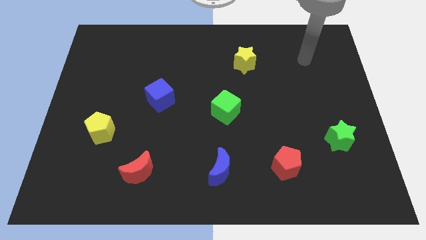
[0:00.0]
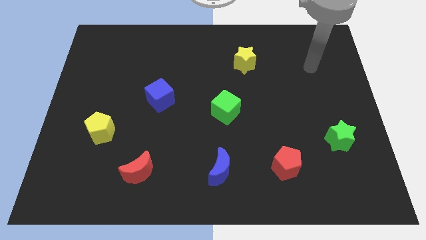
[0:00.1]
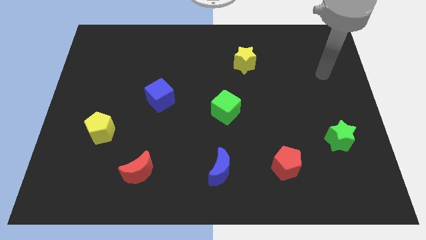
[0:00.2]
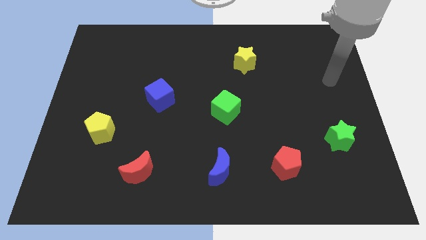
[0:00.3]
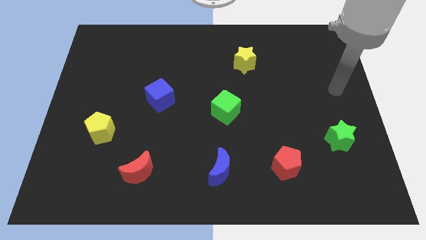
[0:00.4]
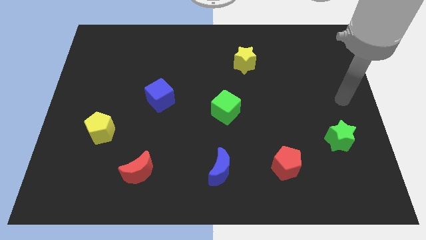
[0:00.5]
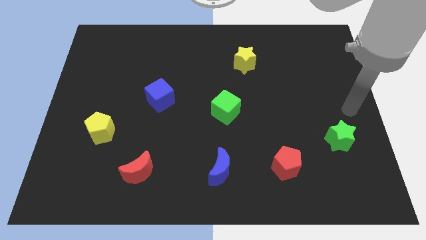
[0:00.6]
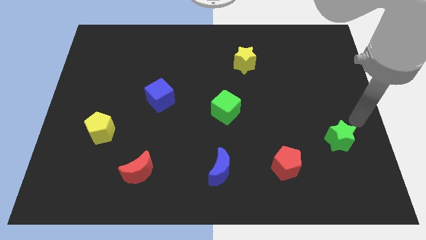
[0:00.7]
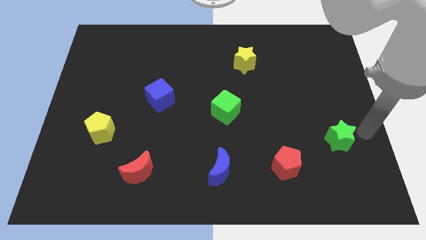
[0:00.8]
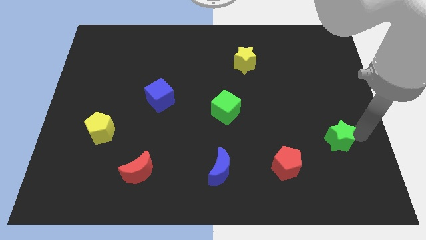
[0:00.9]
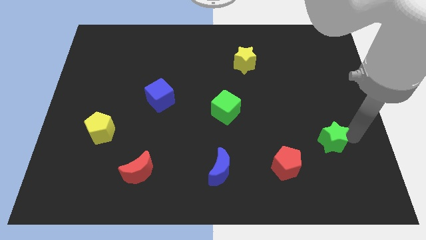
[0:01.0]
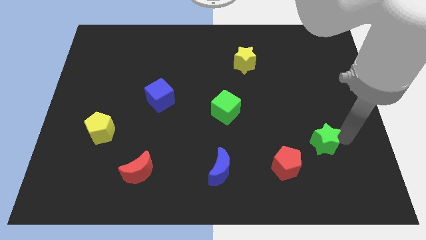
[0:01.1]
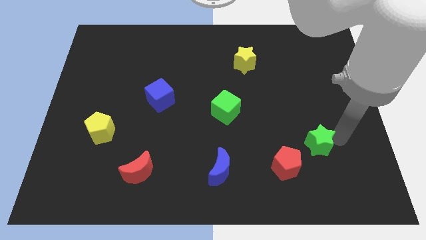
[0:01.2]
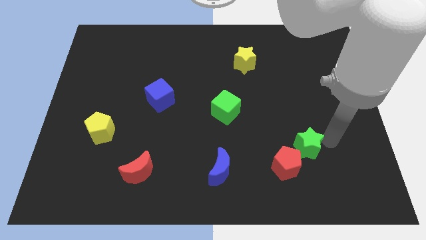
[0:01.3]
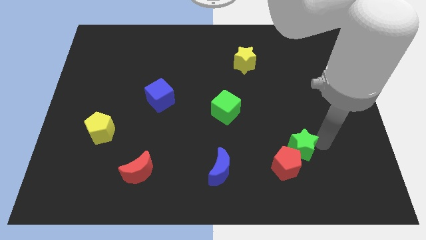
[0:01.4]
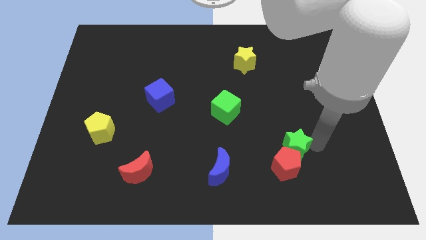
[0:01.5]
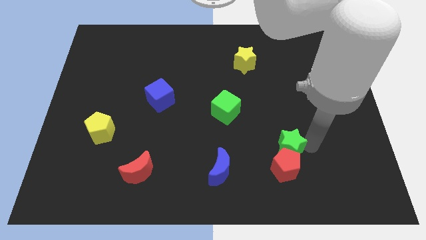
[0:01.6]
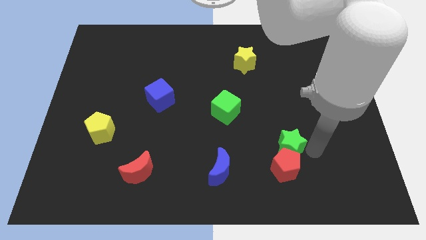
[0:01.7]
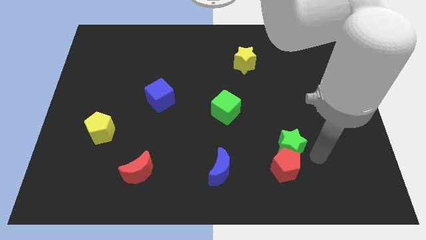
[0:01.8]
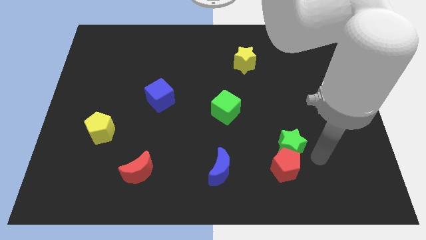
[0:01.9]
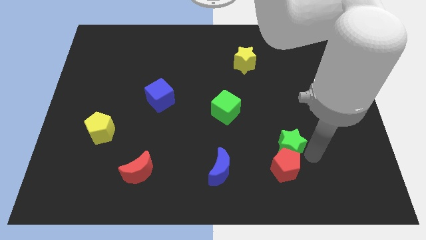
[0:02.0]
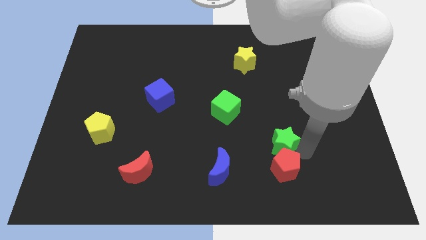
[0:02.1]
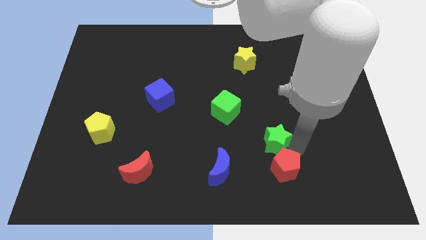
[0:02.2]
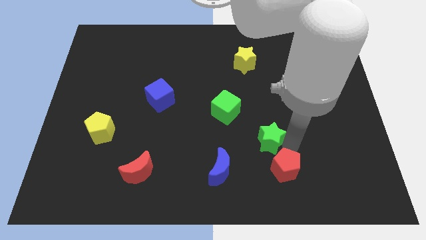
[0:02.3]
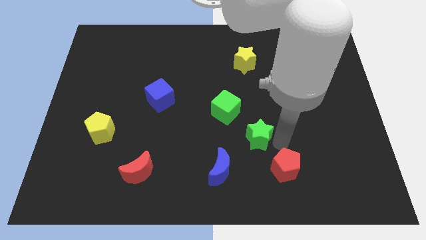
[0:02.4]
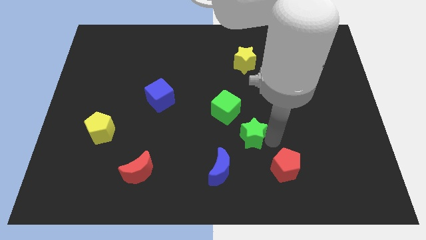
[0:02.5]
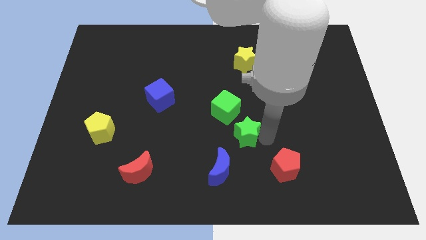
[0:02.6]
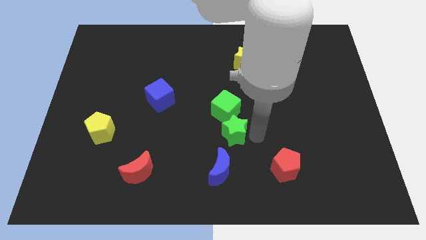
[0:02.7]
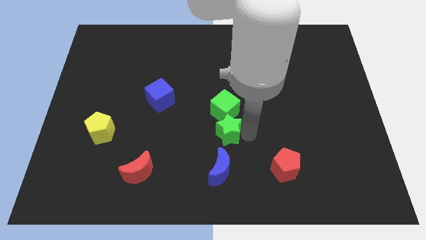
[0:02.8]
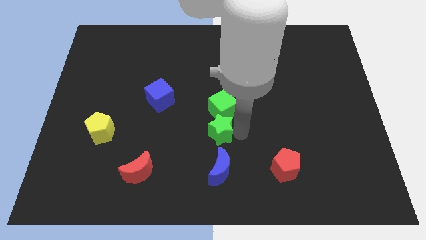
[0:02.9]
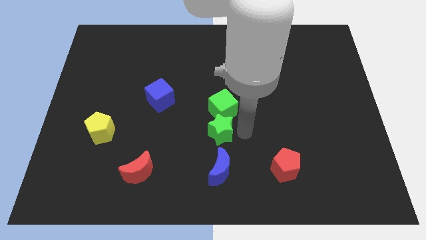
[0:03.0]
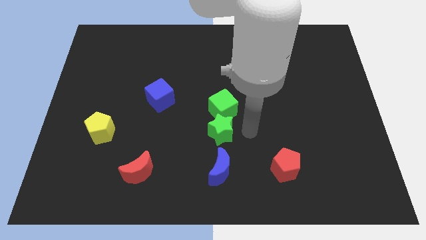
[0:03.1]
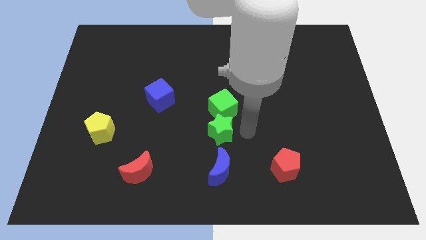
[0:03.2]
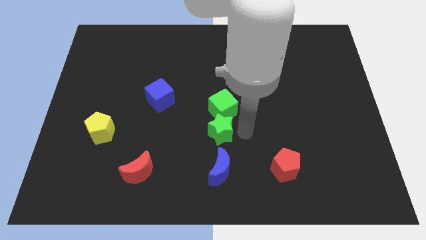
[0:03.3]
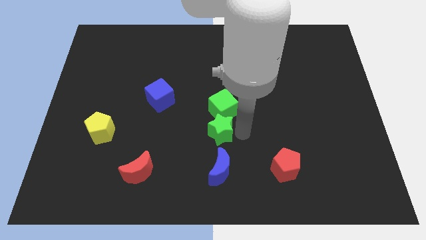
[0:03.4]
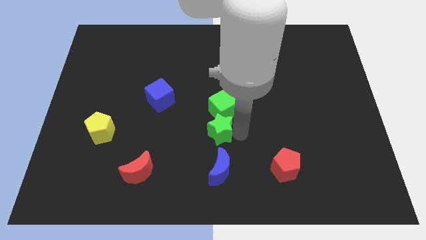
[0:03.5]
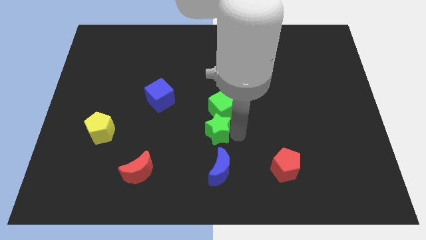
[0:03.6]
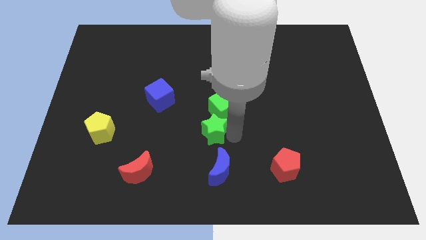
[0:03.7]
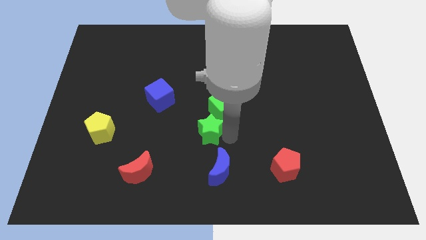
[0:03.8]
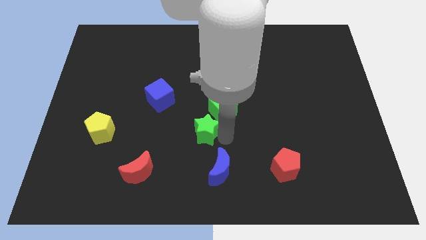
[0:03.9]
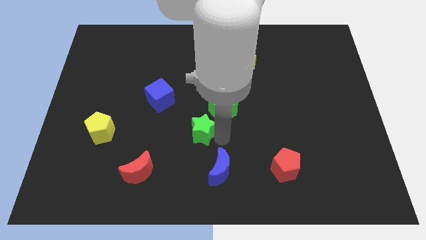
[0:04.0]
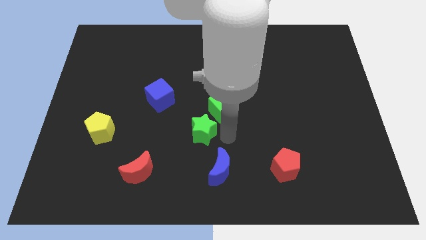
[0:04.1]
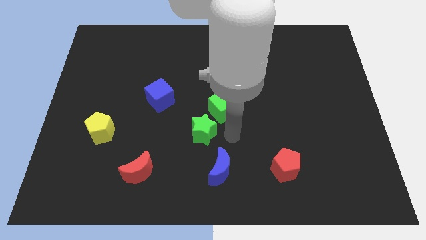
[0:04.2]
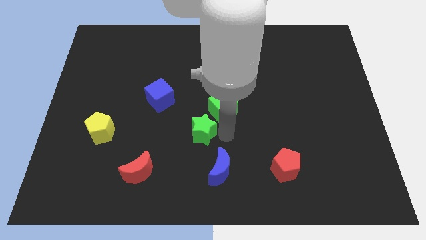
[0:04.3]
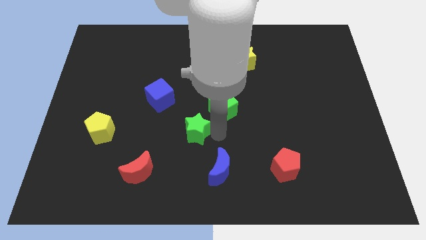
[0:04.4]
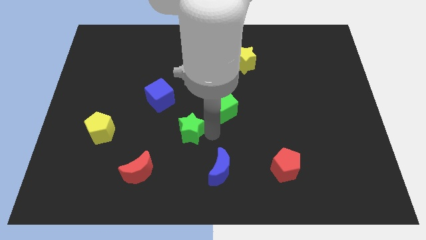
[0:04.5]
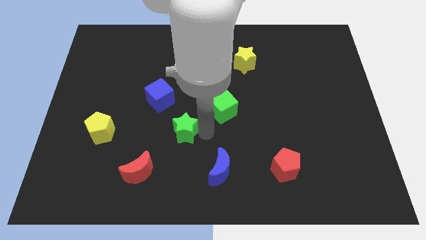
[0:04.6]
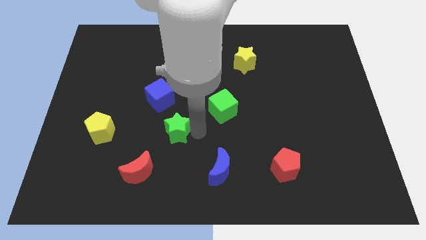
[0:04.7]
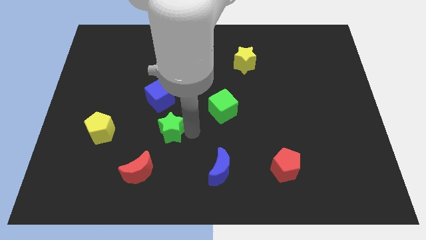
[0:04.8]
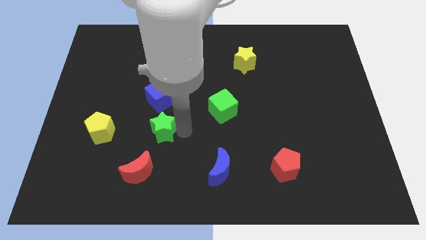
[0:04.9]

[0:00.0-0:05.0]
move the green star above the red moon

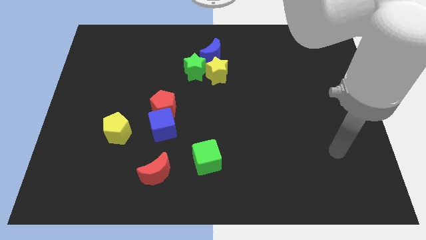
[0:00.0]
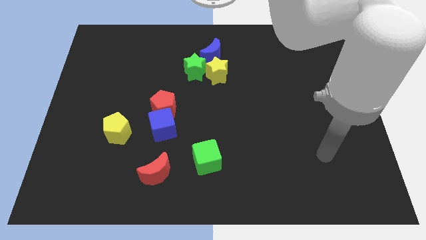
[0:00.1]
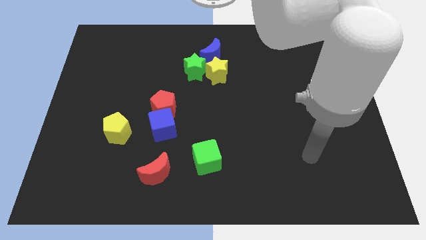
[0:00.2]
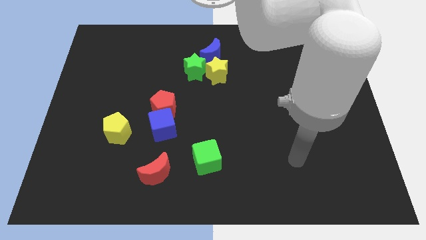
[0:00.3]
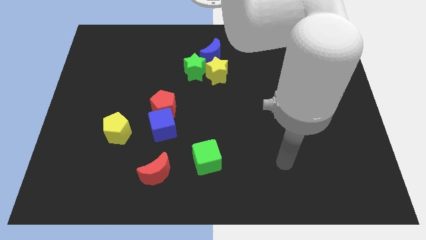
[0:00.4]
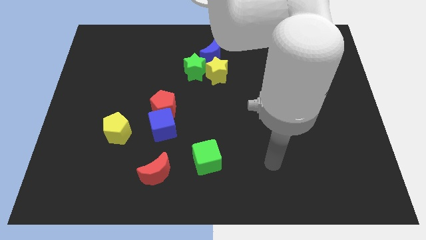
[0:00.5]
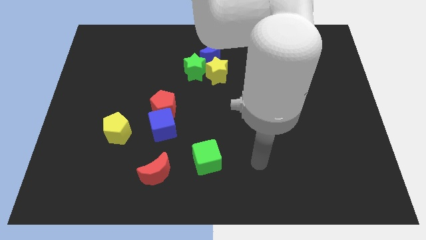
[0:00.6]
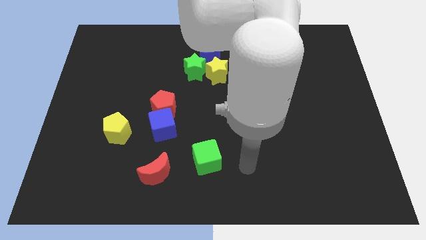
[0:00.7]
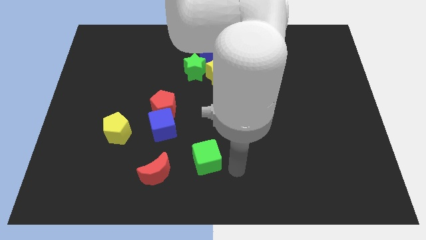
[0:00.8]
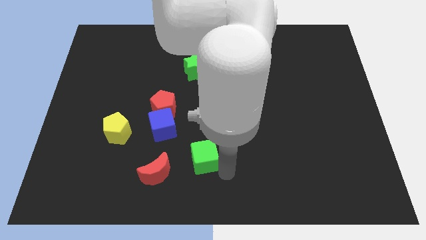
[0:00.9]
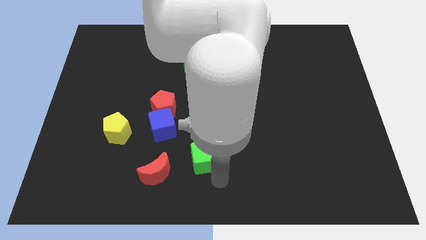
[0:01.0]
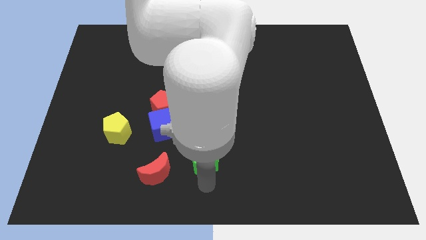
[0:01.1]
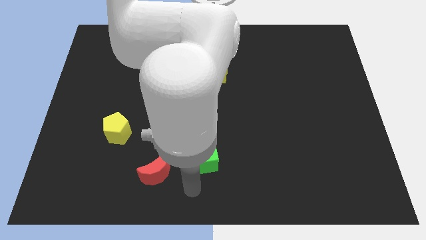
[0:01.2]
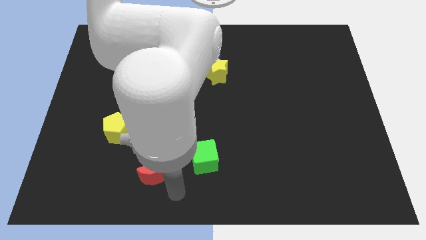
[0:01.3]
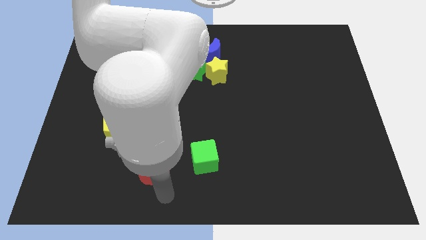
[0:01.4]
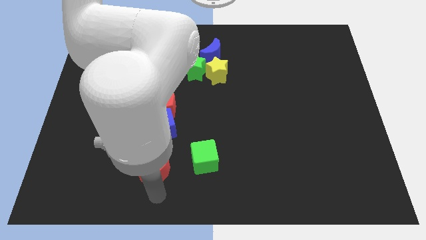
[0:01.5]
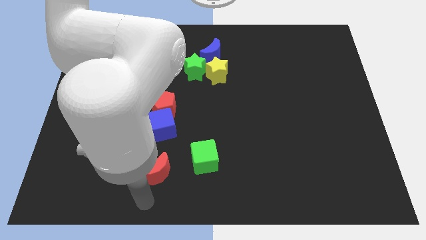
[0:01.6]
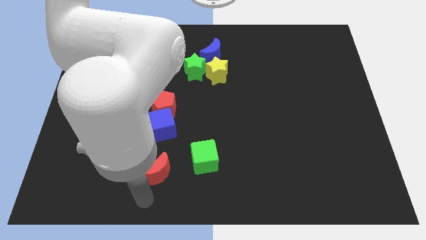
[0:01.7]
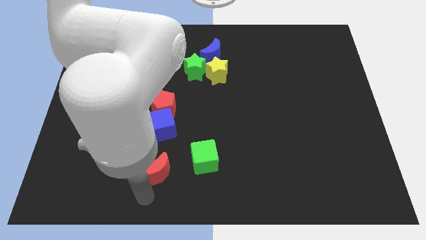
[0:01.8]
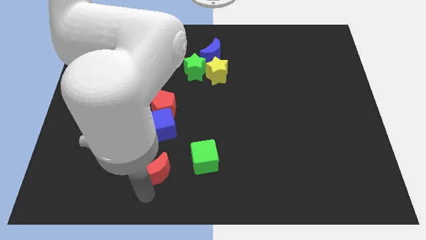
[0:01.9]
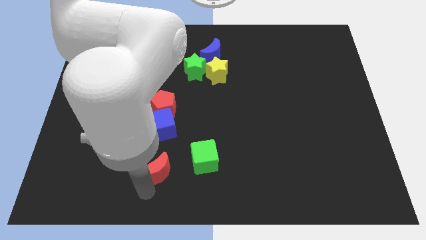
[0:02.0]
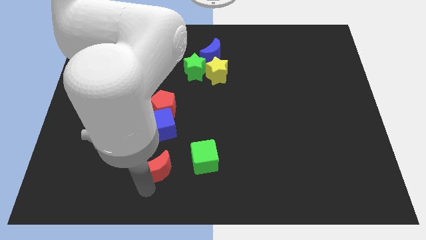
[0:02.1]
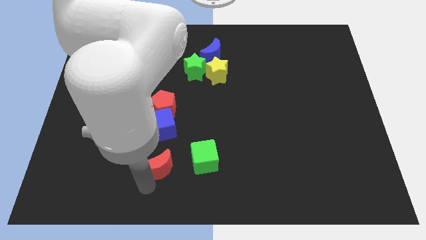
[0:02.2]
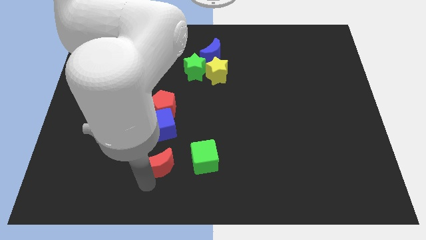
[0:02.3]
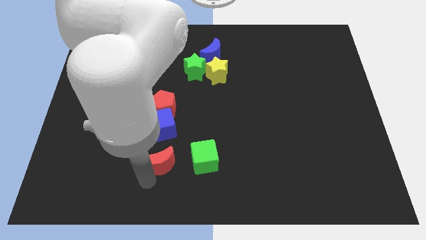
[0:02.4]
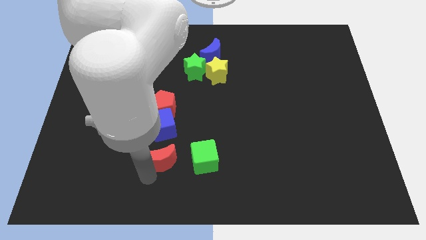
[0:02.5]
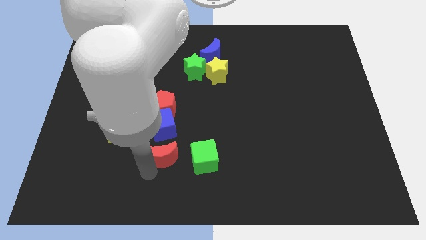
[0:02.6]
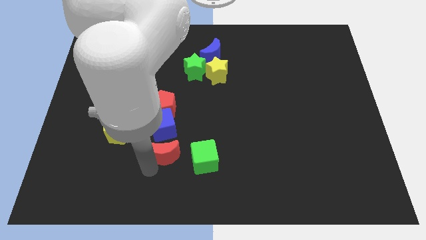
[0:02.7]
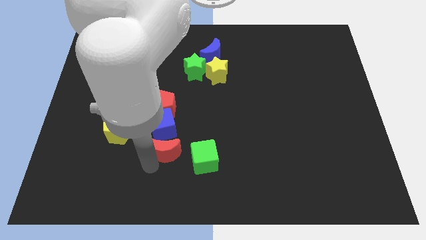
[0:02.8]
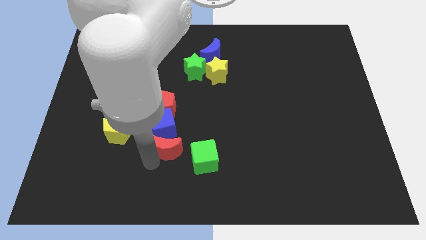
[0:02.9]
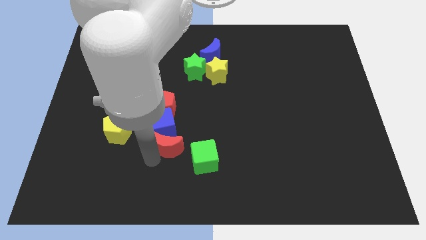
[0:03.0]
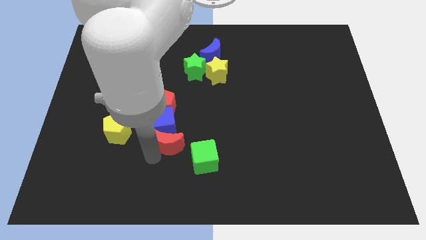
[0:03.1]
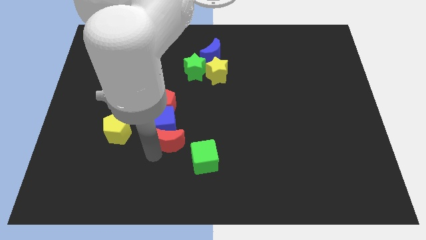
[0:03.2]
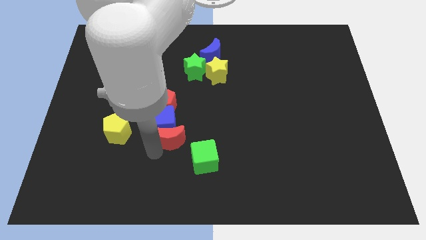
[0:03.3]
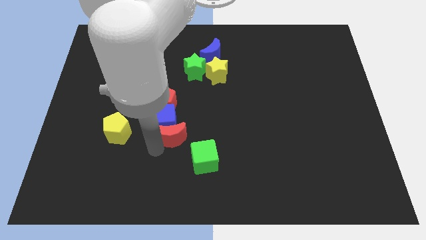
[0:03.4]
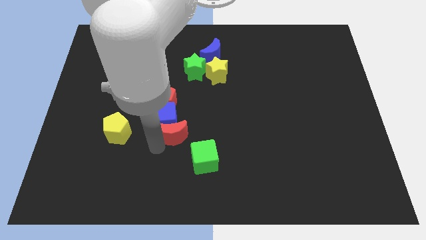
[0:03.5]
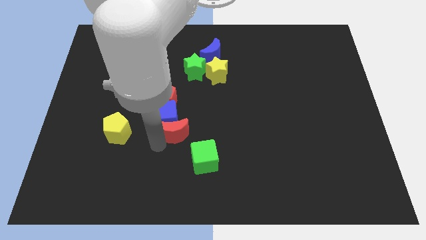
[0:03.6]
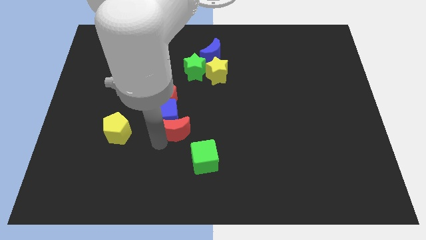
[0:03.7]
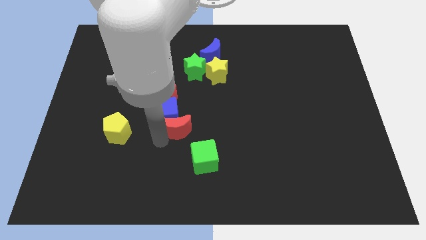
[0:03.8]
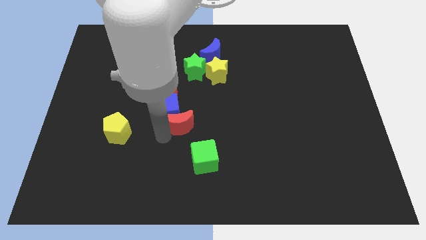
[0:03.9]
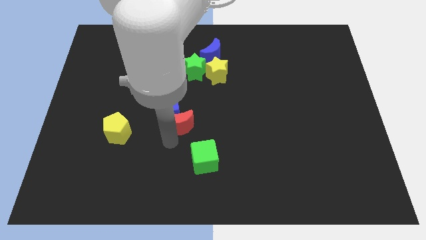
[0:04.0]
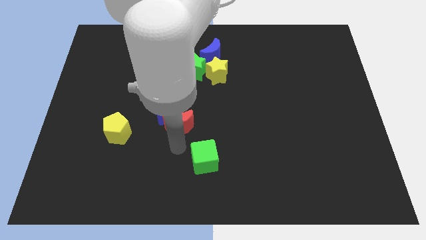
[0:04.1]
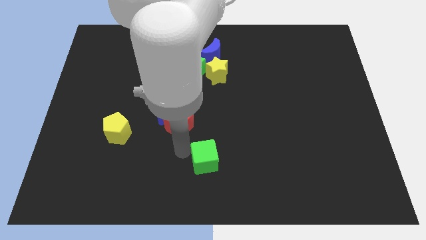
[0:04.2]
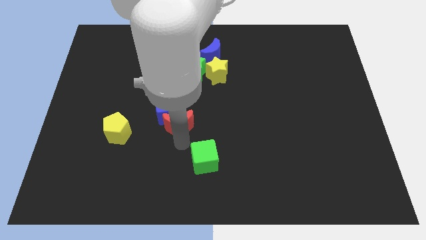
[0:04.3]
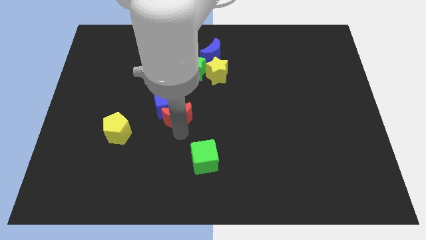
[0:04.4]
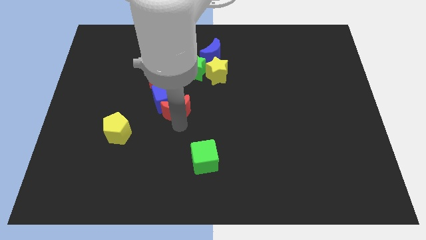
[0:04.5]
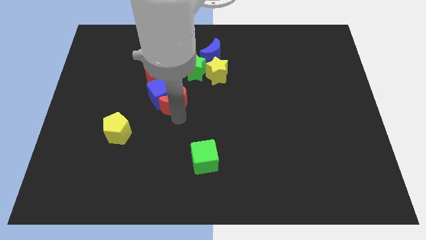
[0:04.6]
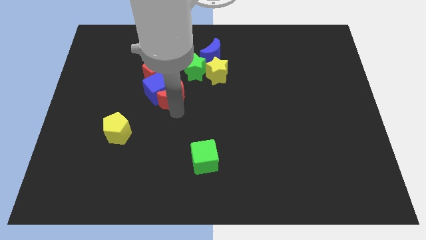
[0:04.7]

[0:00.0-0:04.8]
slide the red moon to the bottom left side of the green star
